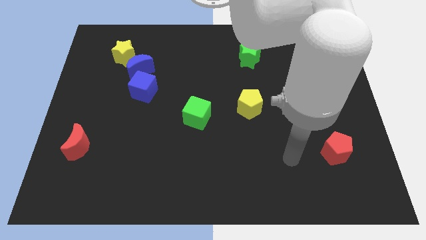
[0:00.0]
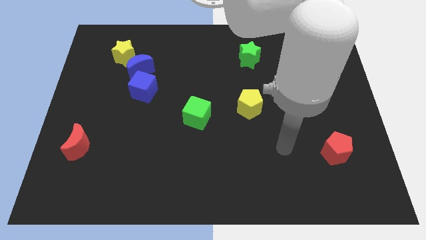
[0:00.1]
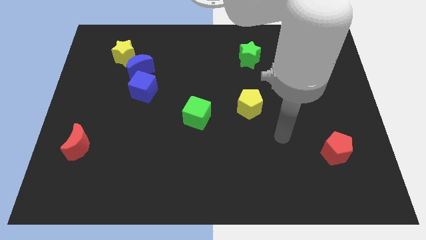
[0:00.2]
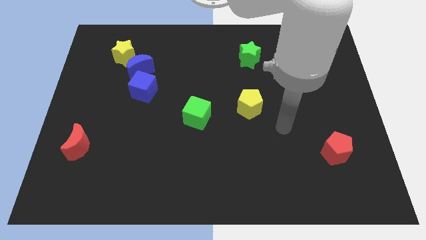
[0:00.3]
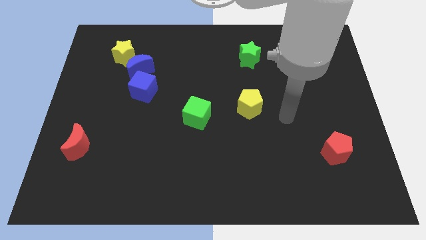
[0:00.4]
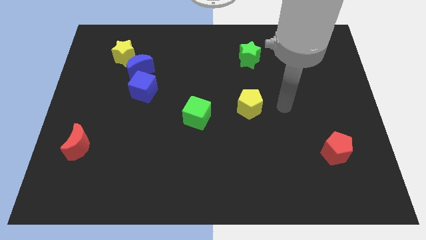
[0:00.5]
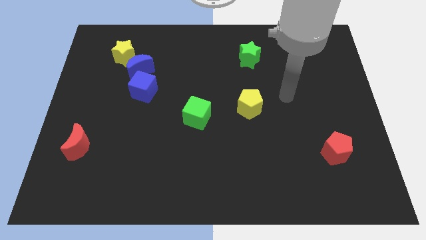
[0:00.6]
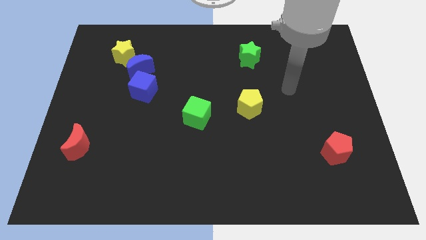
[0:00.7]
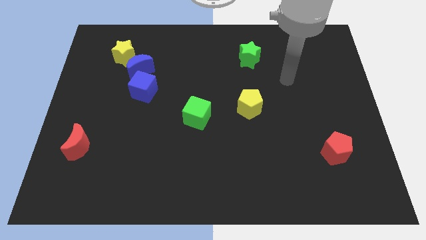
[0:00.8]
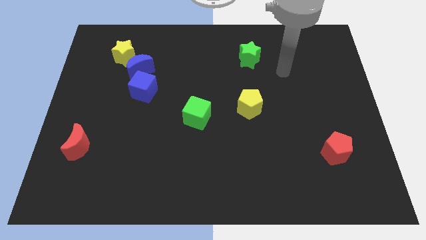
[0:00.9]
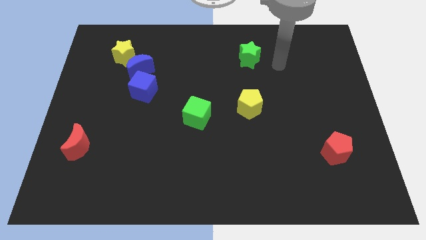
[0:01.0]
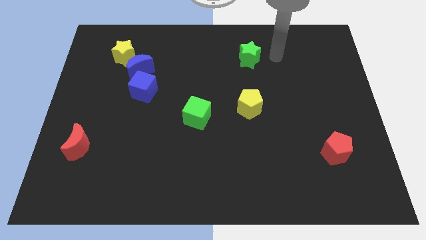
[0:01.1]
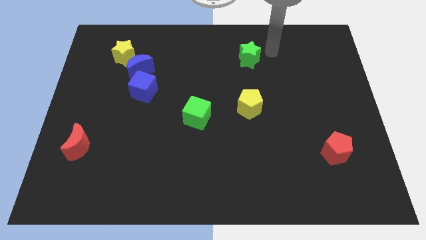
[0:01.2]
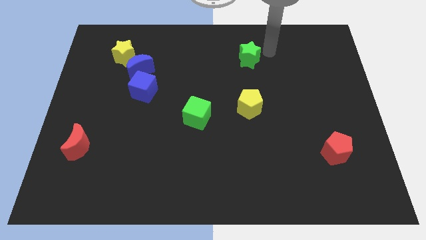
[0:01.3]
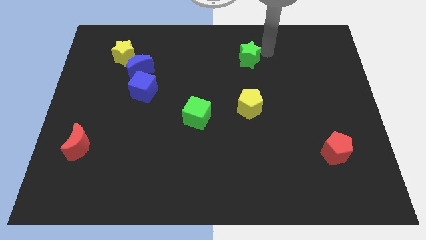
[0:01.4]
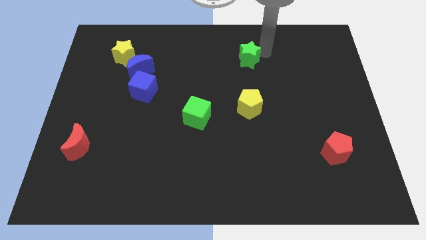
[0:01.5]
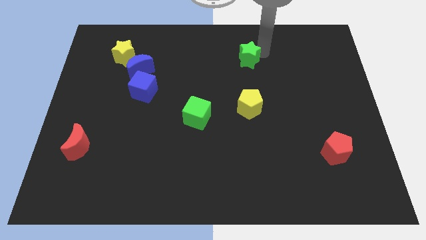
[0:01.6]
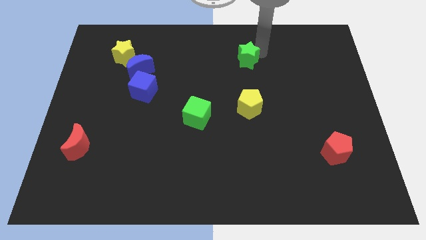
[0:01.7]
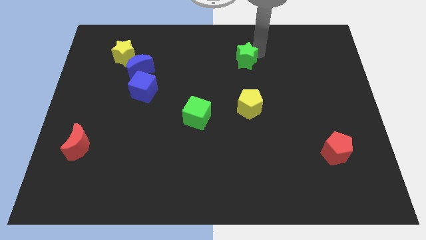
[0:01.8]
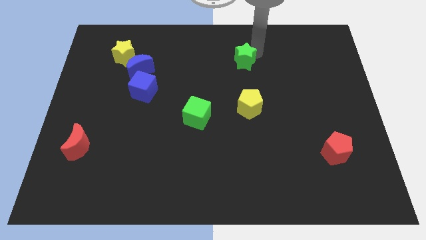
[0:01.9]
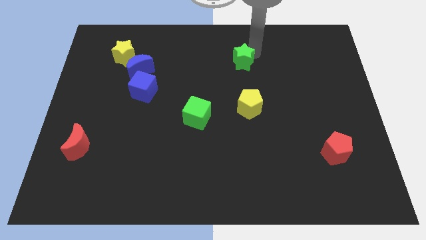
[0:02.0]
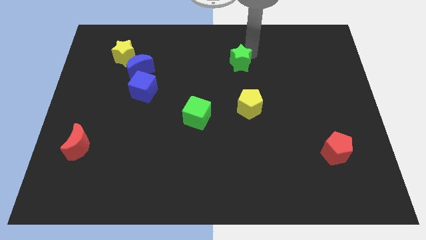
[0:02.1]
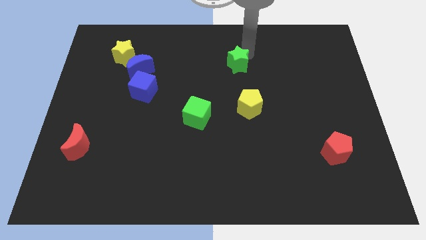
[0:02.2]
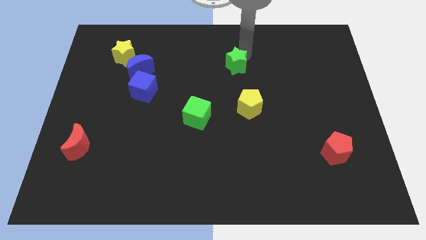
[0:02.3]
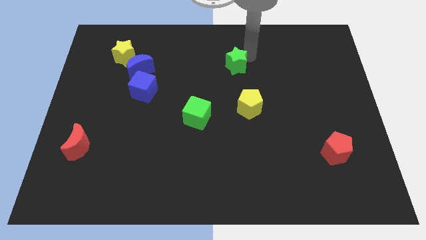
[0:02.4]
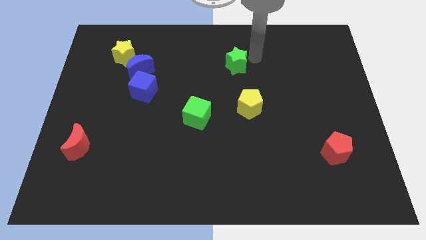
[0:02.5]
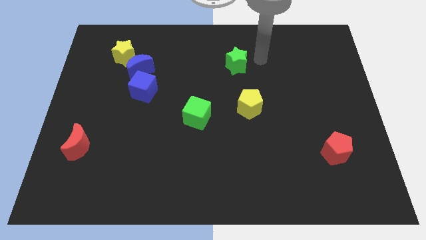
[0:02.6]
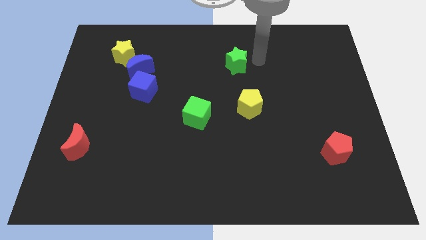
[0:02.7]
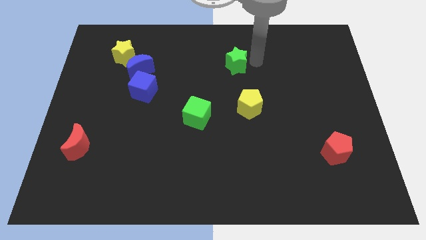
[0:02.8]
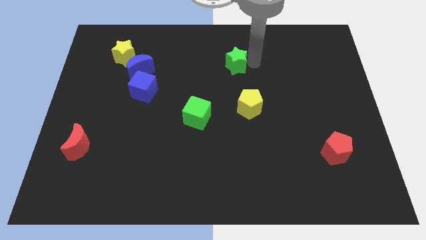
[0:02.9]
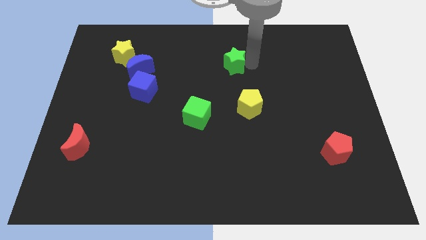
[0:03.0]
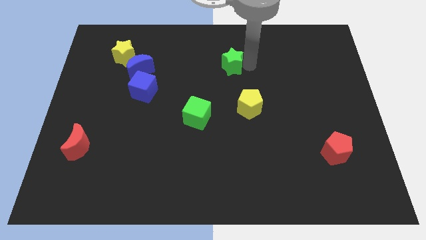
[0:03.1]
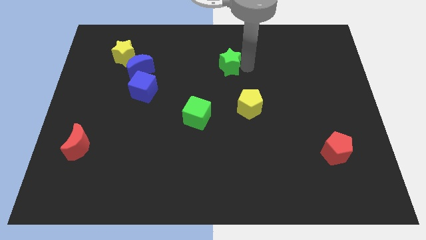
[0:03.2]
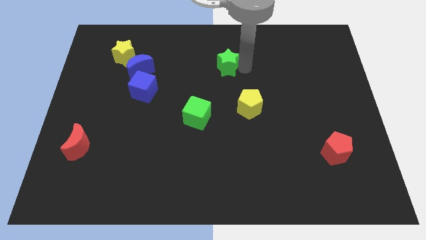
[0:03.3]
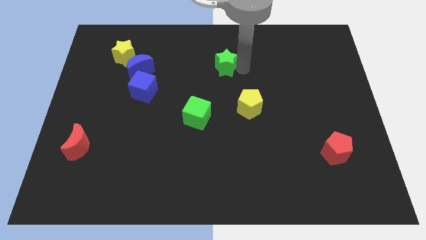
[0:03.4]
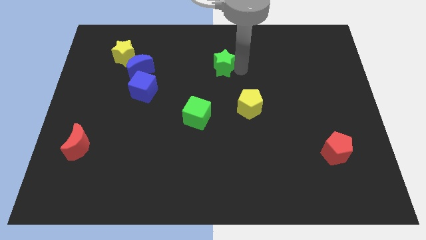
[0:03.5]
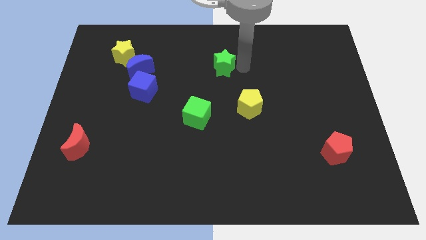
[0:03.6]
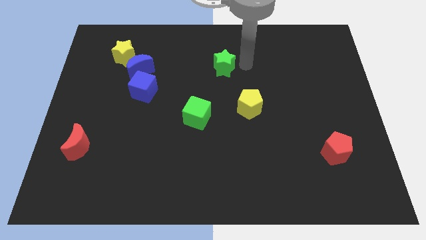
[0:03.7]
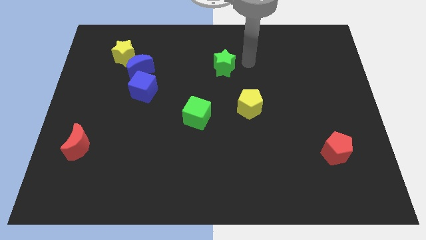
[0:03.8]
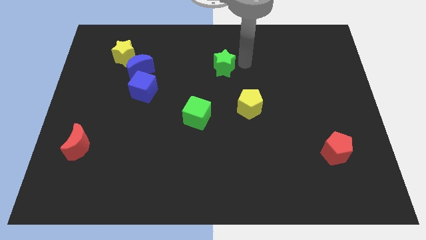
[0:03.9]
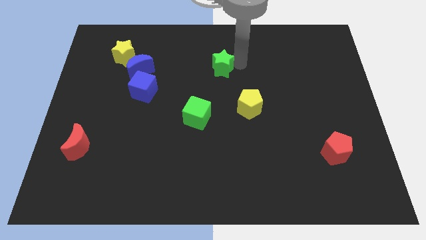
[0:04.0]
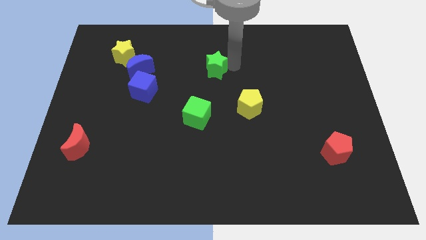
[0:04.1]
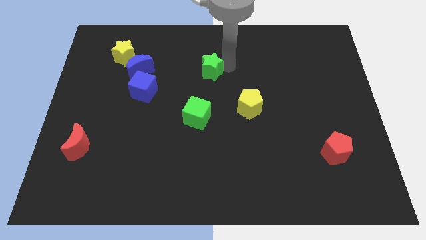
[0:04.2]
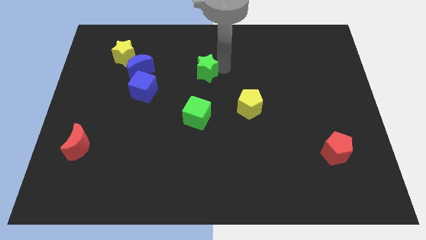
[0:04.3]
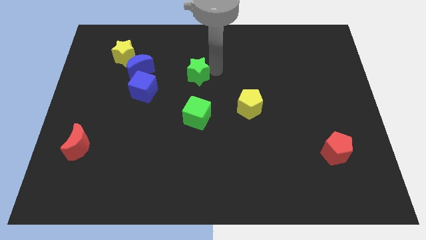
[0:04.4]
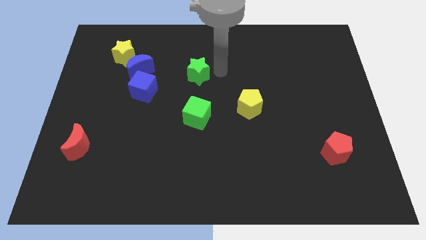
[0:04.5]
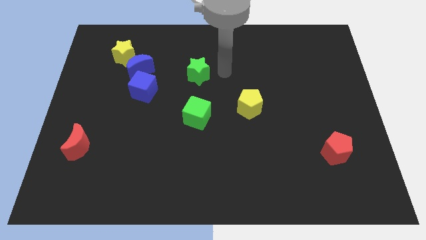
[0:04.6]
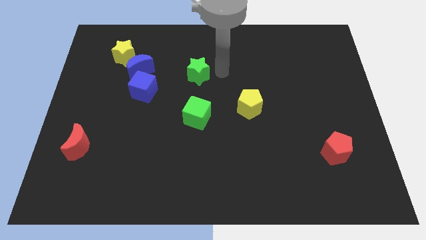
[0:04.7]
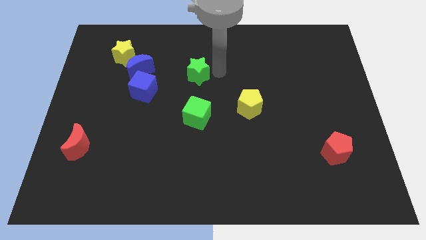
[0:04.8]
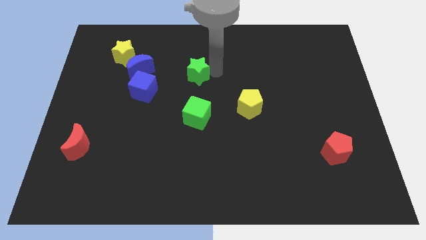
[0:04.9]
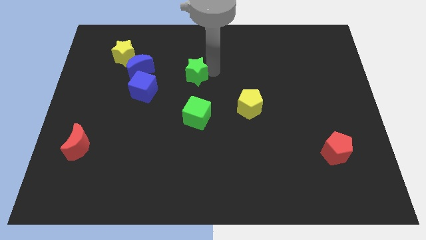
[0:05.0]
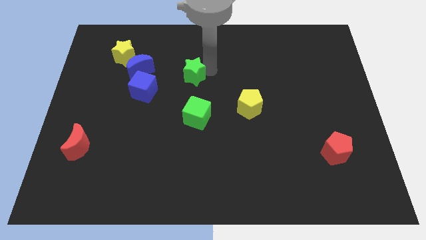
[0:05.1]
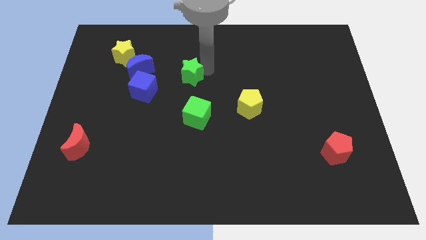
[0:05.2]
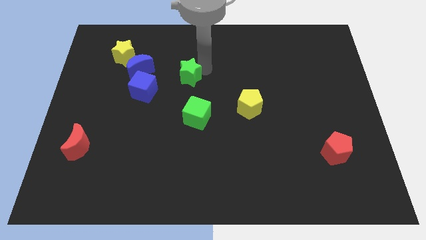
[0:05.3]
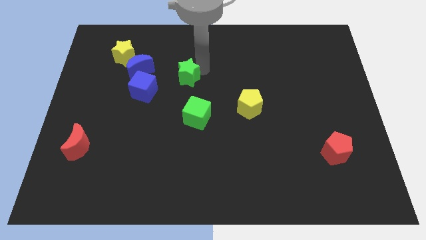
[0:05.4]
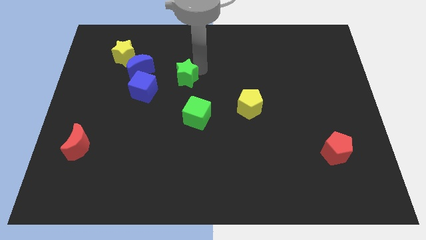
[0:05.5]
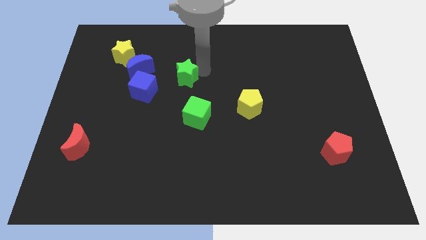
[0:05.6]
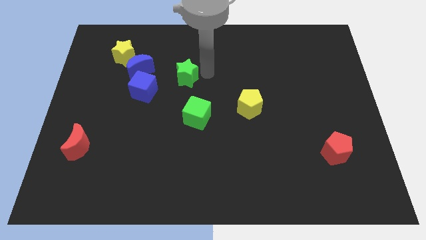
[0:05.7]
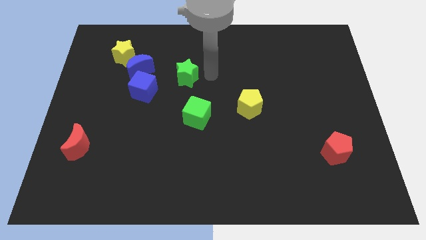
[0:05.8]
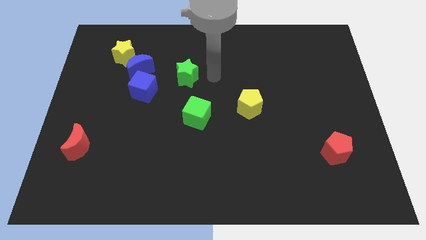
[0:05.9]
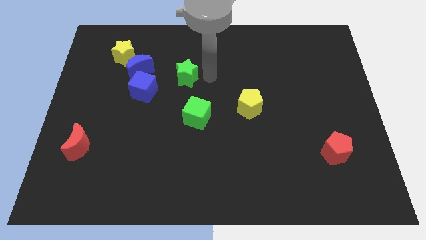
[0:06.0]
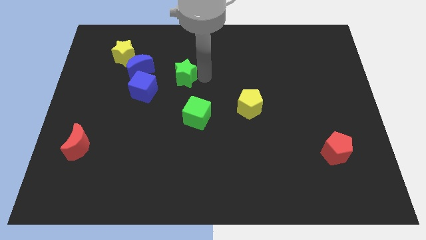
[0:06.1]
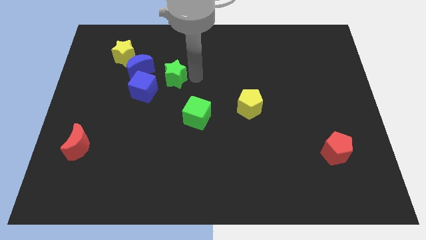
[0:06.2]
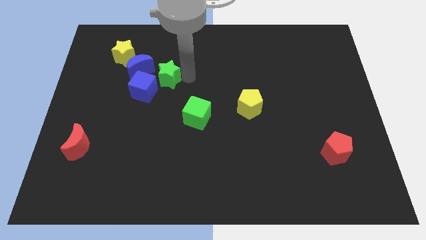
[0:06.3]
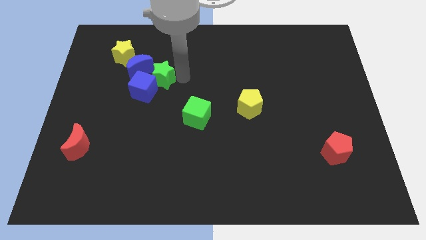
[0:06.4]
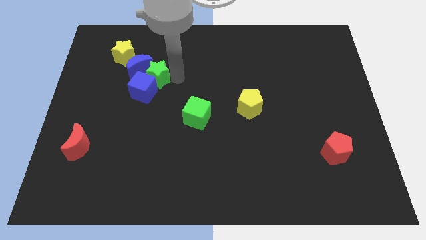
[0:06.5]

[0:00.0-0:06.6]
push the green star to the bottom right side of the yellow star
